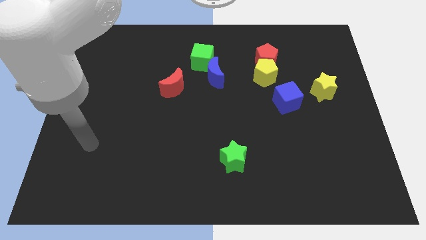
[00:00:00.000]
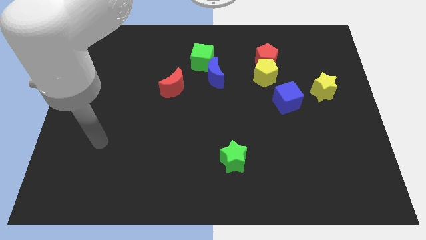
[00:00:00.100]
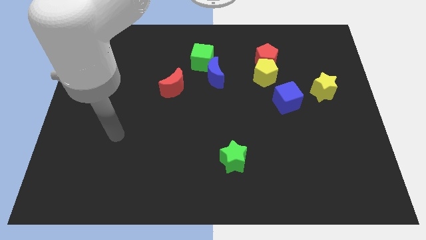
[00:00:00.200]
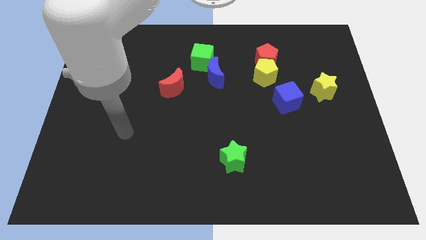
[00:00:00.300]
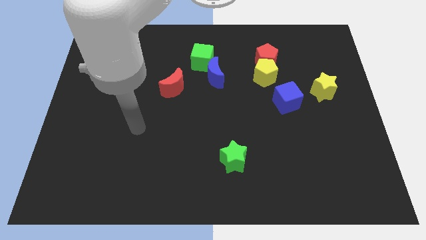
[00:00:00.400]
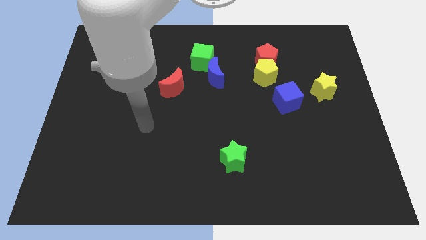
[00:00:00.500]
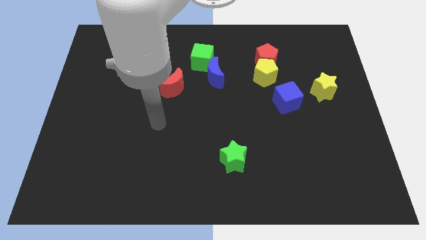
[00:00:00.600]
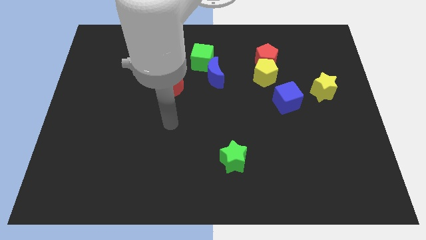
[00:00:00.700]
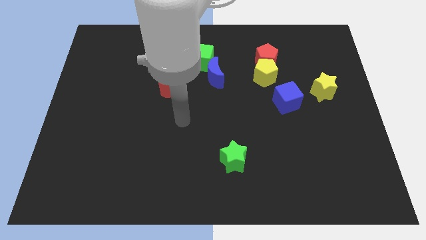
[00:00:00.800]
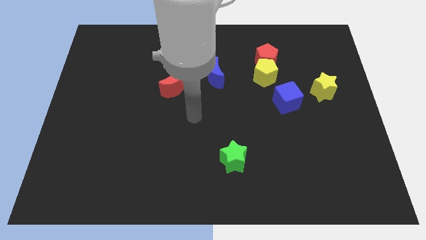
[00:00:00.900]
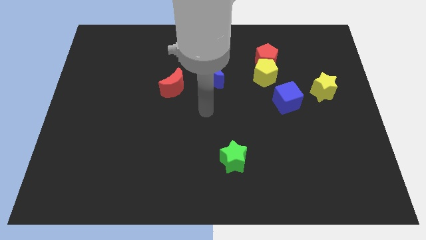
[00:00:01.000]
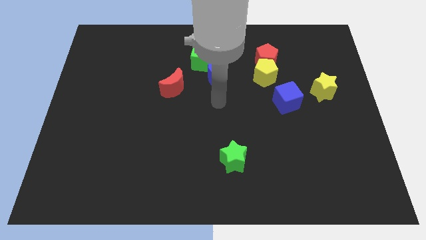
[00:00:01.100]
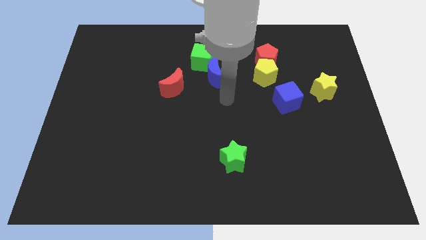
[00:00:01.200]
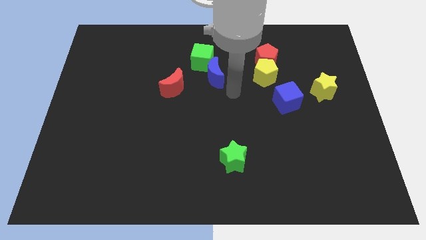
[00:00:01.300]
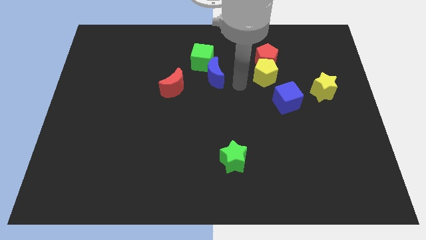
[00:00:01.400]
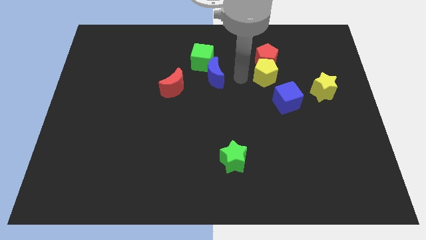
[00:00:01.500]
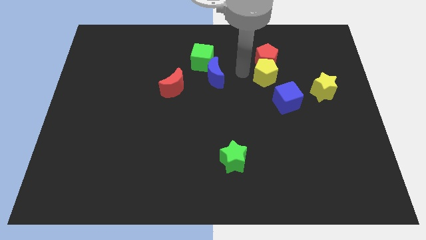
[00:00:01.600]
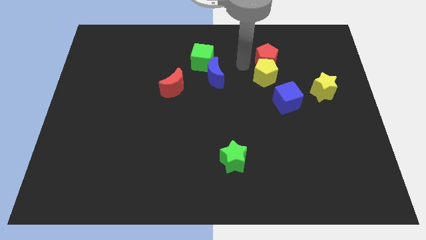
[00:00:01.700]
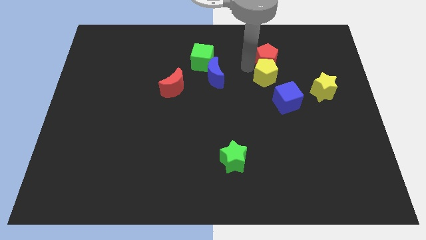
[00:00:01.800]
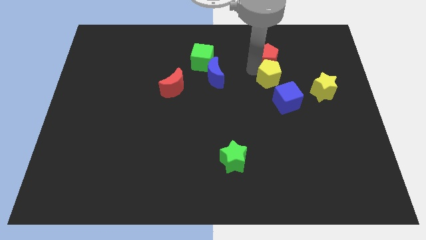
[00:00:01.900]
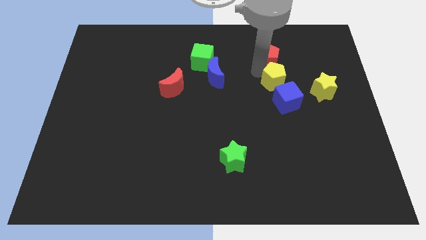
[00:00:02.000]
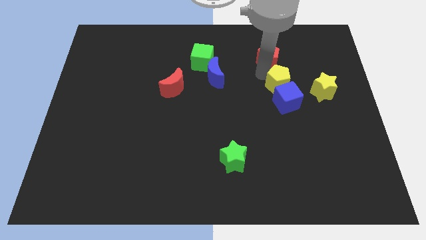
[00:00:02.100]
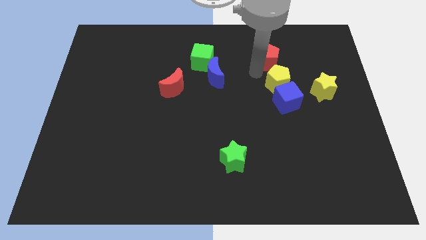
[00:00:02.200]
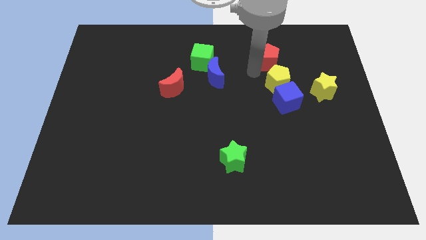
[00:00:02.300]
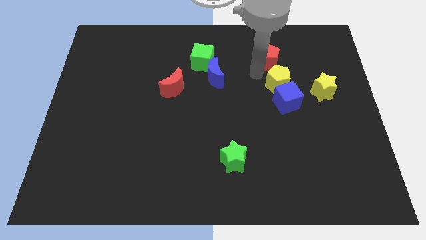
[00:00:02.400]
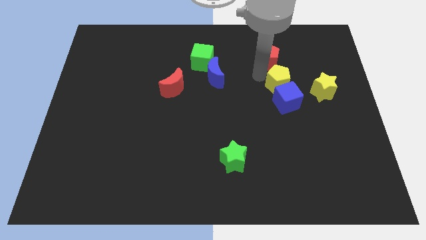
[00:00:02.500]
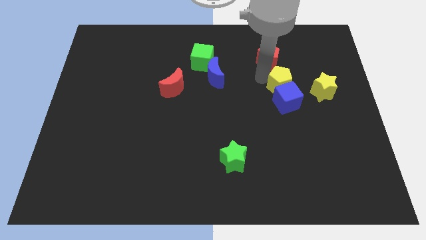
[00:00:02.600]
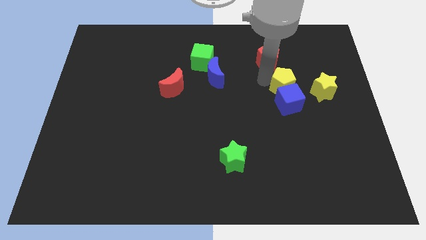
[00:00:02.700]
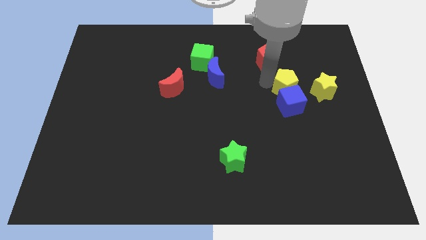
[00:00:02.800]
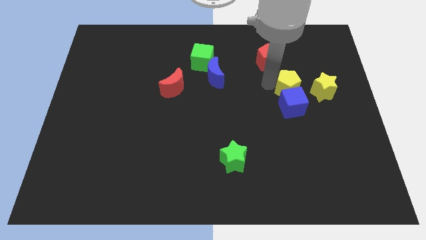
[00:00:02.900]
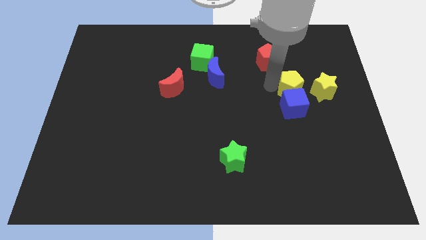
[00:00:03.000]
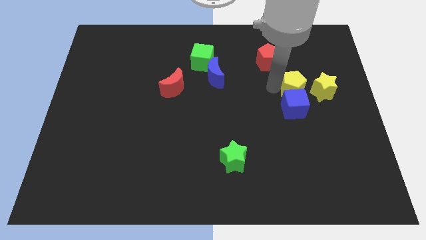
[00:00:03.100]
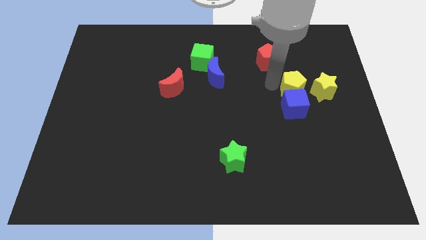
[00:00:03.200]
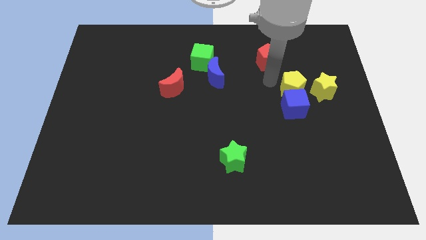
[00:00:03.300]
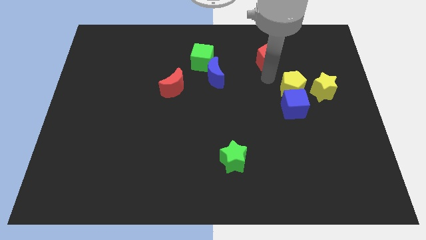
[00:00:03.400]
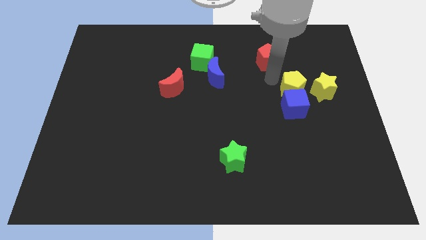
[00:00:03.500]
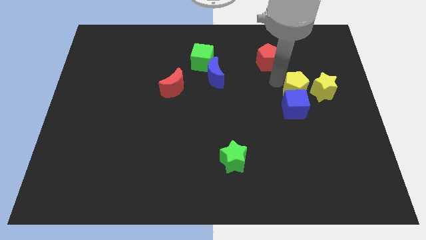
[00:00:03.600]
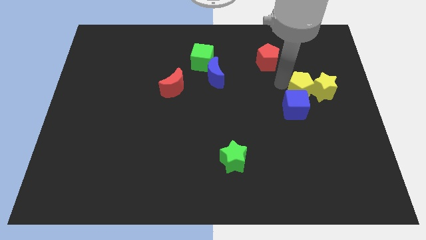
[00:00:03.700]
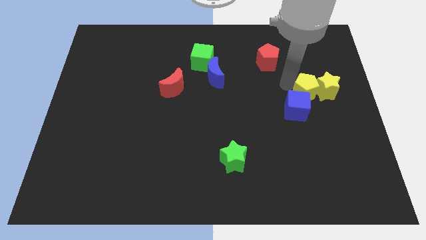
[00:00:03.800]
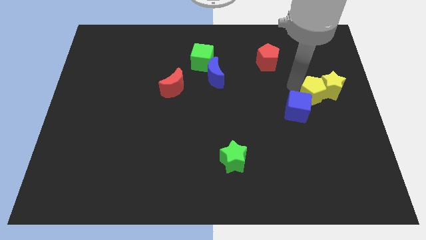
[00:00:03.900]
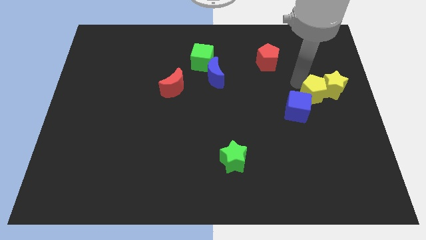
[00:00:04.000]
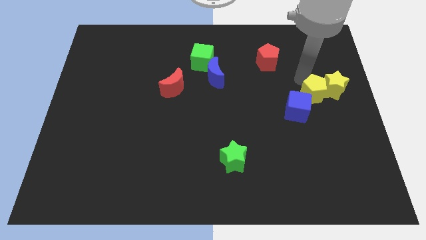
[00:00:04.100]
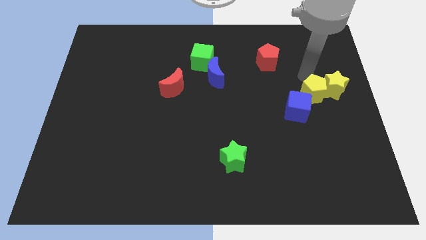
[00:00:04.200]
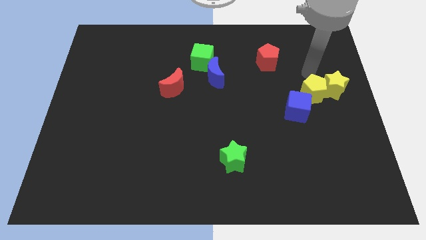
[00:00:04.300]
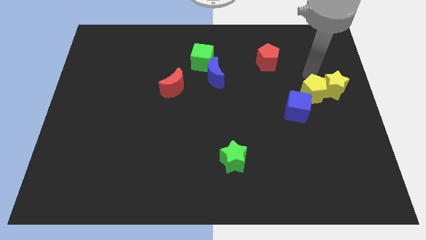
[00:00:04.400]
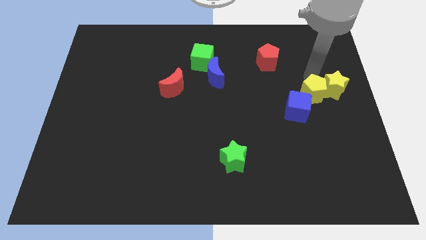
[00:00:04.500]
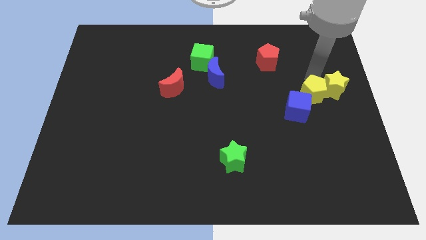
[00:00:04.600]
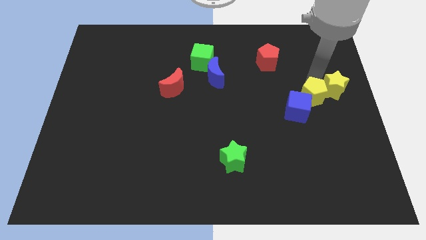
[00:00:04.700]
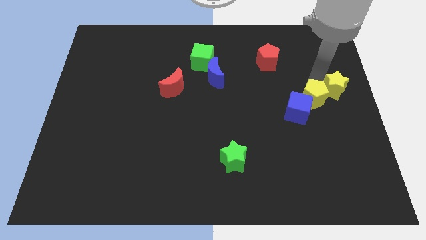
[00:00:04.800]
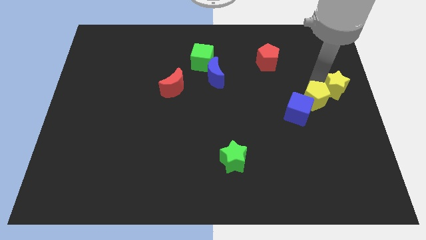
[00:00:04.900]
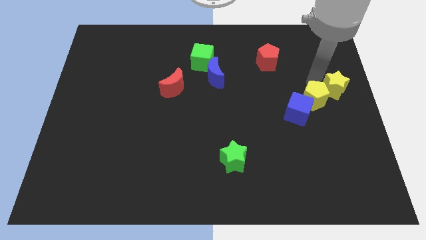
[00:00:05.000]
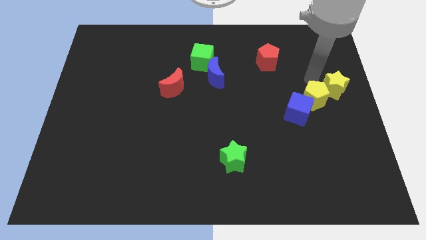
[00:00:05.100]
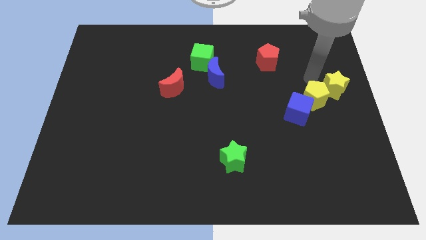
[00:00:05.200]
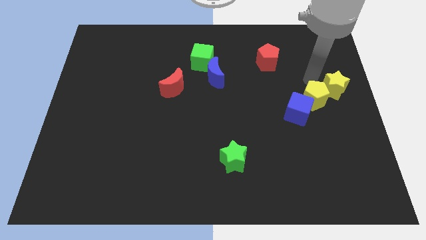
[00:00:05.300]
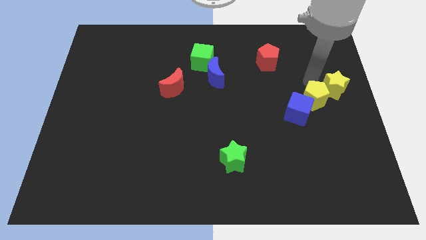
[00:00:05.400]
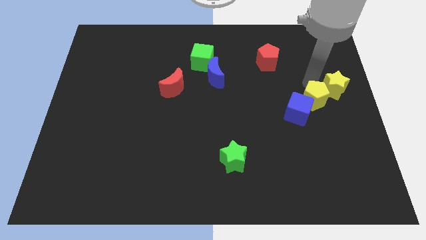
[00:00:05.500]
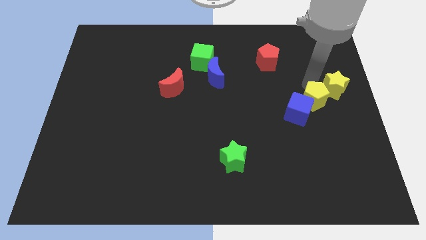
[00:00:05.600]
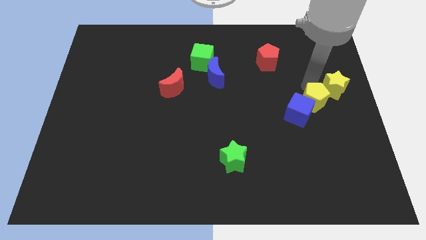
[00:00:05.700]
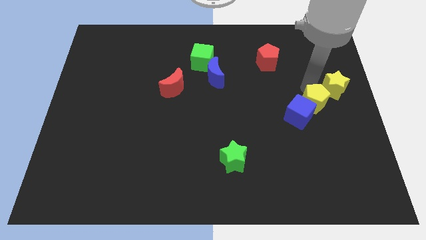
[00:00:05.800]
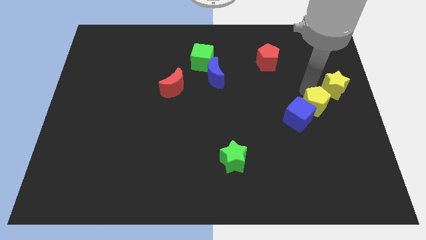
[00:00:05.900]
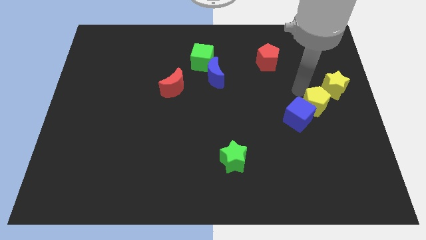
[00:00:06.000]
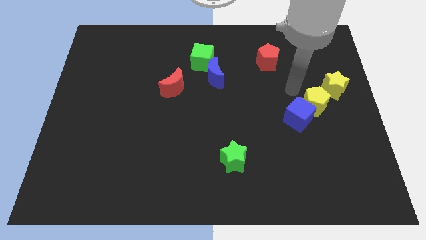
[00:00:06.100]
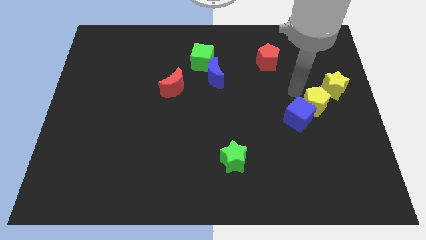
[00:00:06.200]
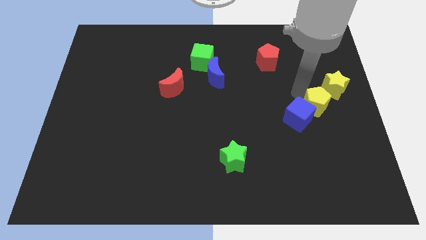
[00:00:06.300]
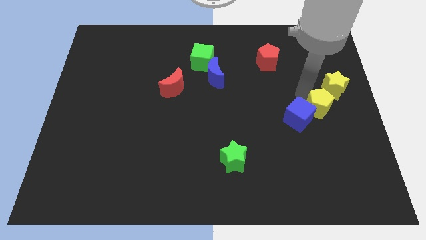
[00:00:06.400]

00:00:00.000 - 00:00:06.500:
put the yellow pentagon to the bottom side of the yellow star

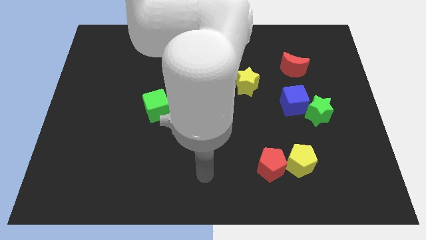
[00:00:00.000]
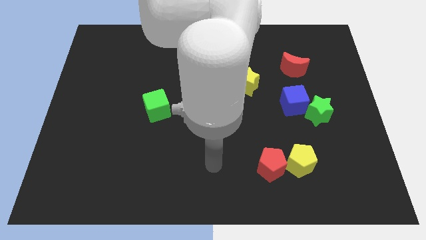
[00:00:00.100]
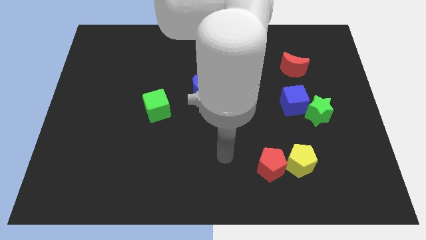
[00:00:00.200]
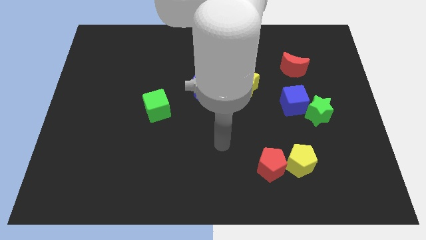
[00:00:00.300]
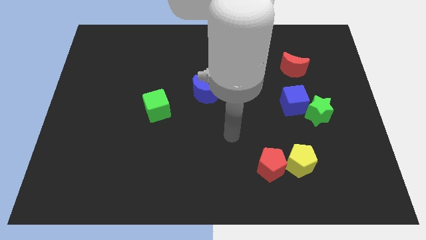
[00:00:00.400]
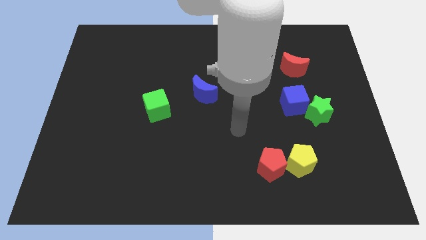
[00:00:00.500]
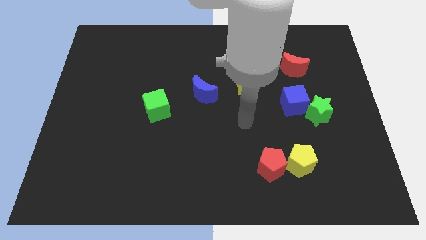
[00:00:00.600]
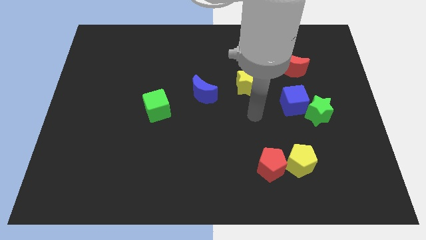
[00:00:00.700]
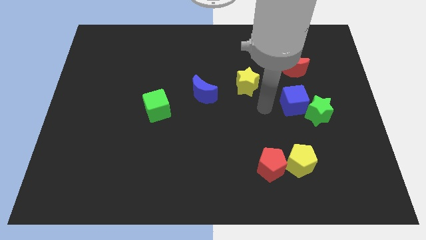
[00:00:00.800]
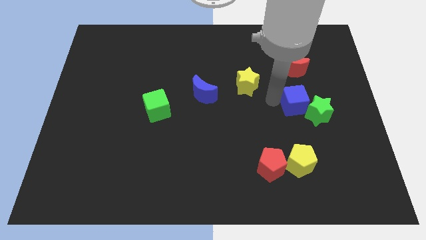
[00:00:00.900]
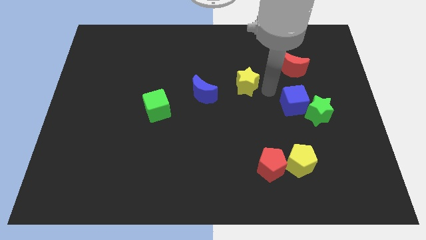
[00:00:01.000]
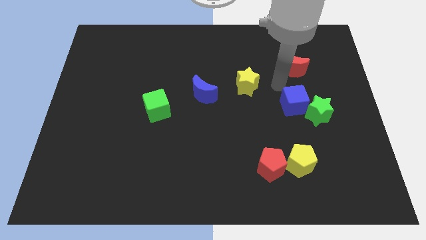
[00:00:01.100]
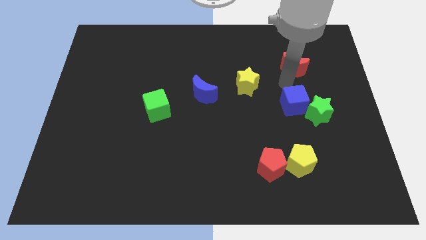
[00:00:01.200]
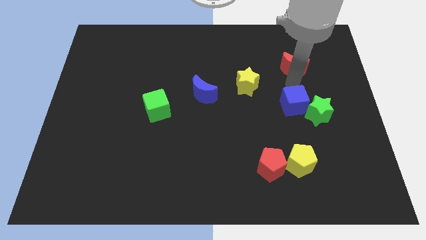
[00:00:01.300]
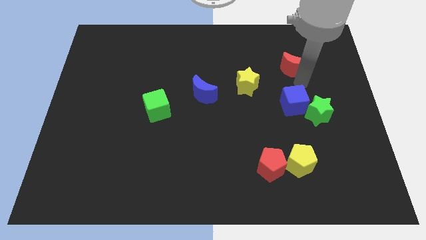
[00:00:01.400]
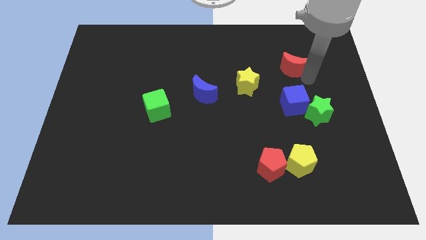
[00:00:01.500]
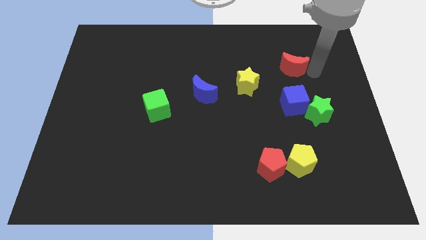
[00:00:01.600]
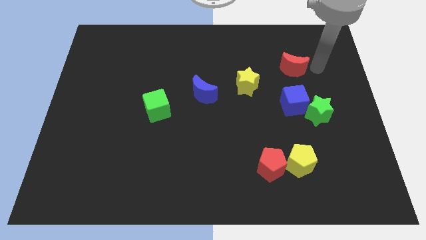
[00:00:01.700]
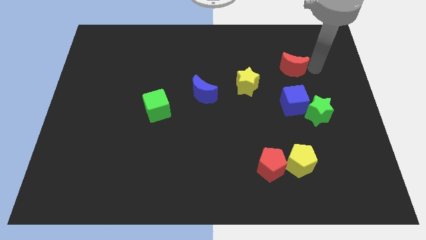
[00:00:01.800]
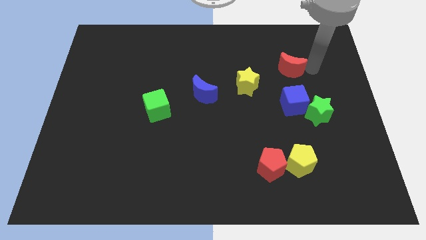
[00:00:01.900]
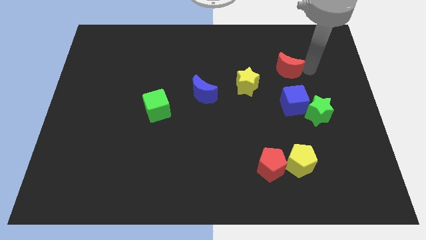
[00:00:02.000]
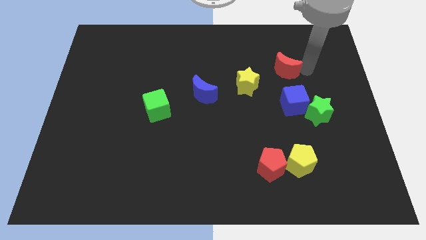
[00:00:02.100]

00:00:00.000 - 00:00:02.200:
move the red moon diagonally up and to the right of the yellow star
